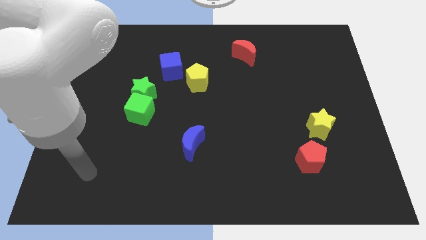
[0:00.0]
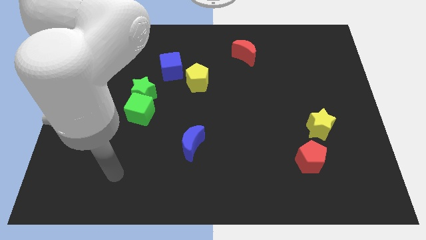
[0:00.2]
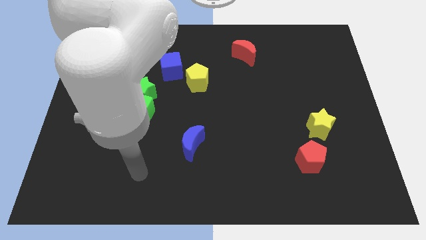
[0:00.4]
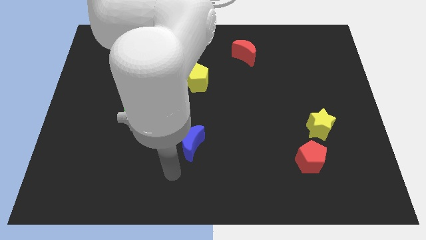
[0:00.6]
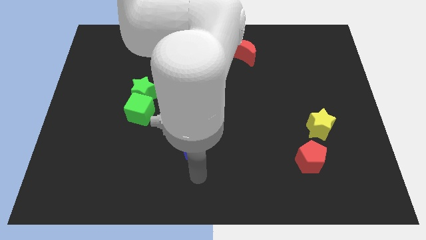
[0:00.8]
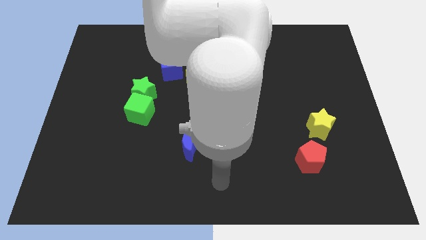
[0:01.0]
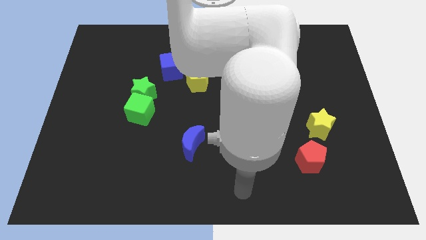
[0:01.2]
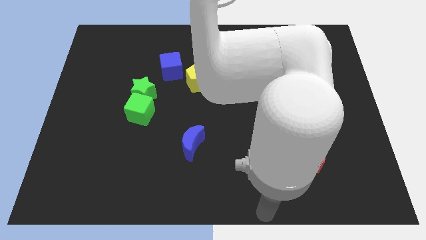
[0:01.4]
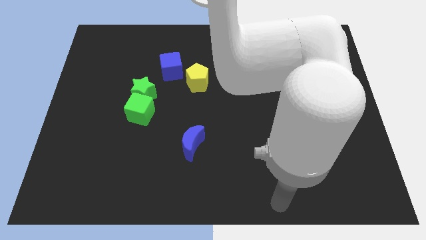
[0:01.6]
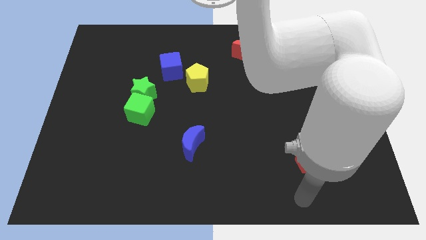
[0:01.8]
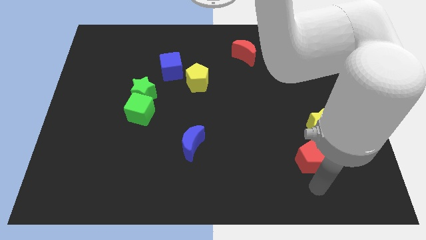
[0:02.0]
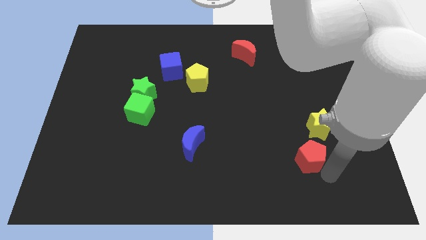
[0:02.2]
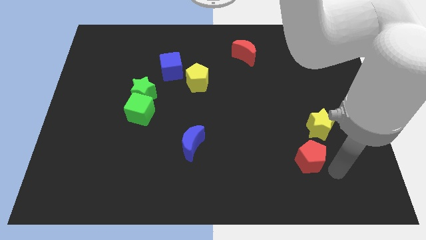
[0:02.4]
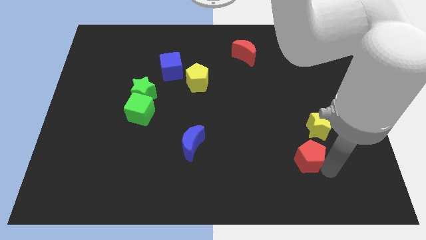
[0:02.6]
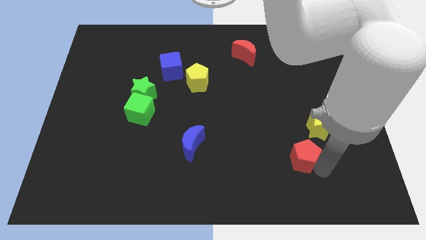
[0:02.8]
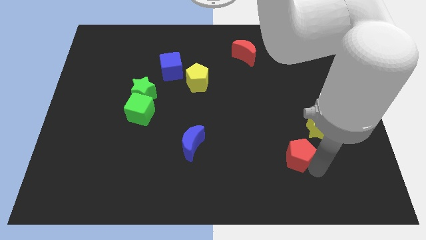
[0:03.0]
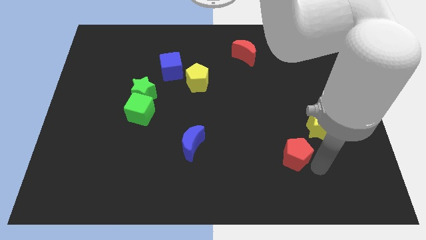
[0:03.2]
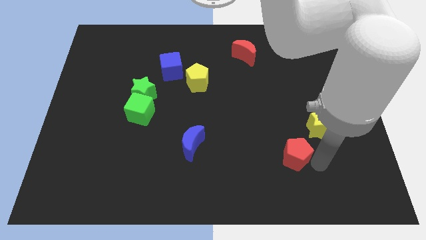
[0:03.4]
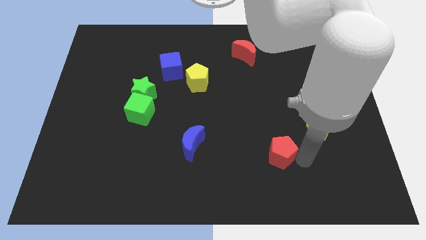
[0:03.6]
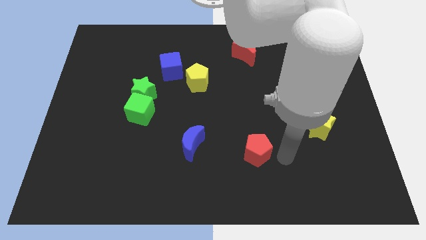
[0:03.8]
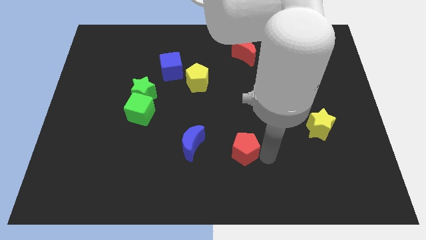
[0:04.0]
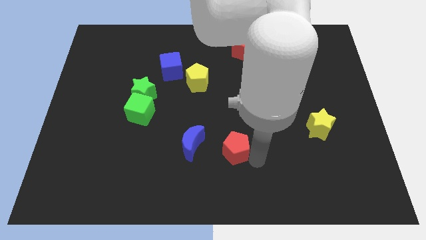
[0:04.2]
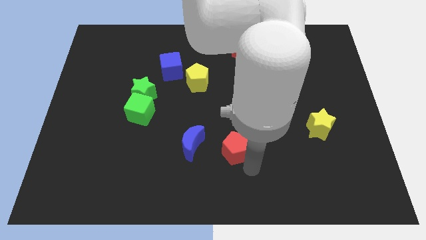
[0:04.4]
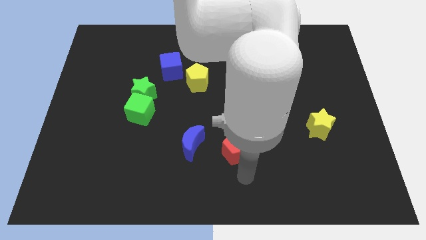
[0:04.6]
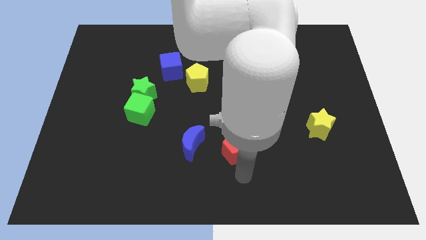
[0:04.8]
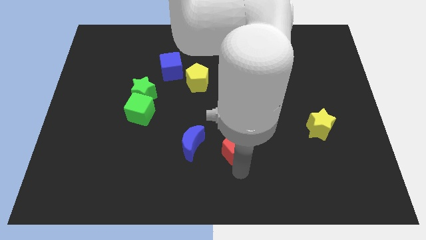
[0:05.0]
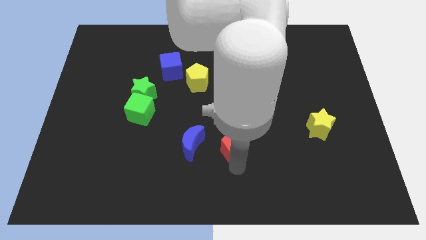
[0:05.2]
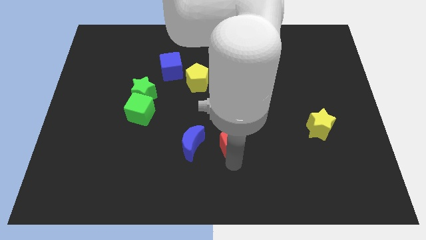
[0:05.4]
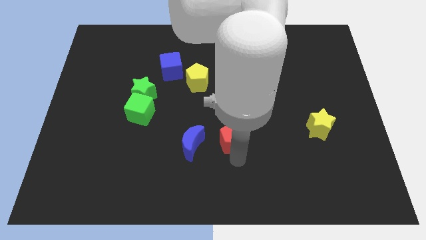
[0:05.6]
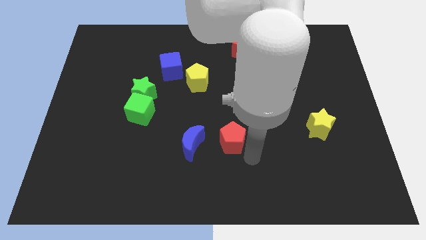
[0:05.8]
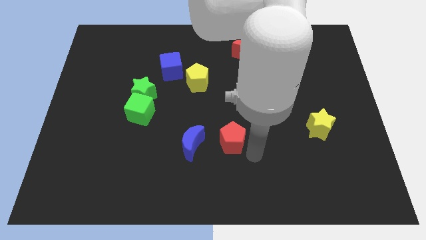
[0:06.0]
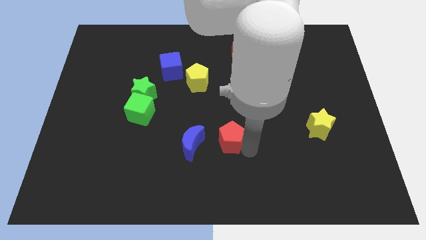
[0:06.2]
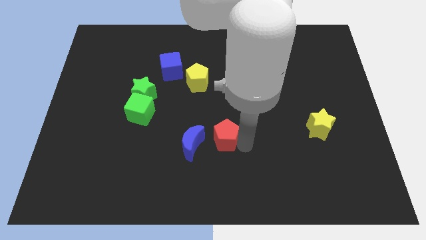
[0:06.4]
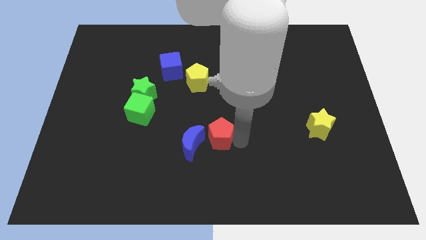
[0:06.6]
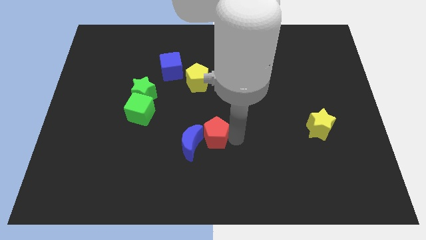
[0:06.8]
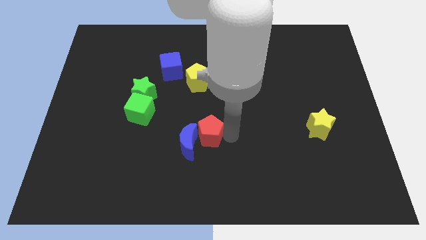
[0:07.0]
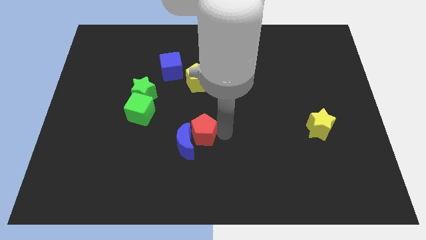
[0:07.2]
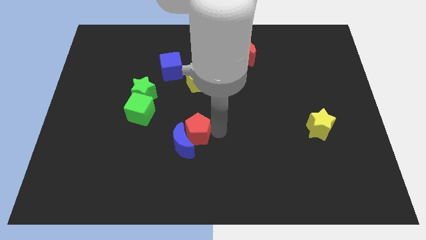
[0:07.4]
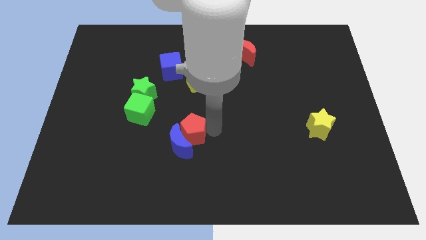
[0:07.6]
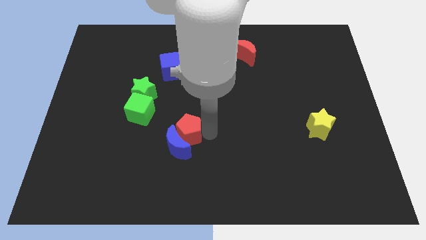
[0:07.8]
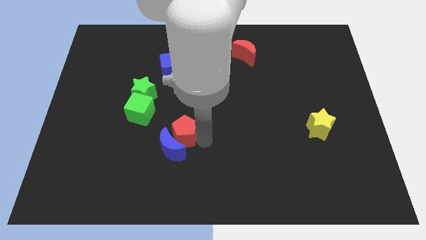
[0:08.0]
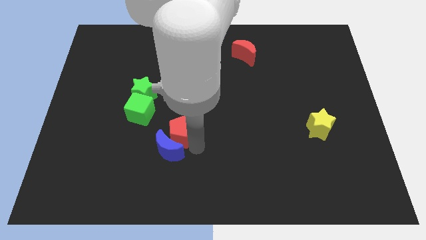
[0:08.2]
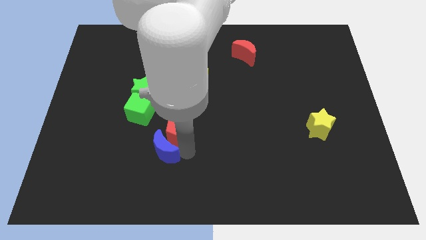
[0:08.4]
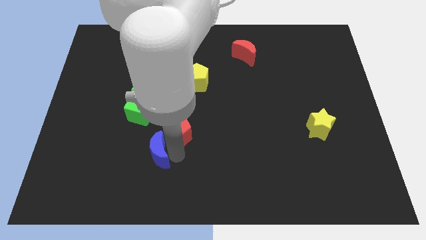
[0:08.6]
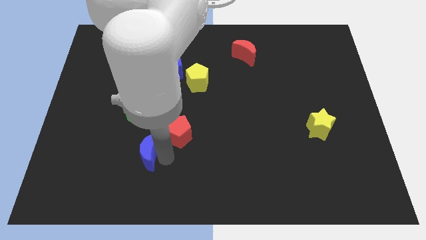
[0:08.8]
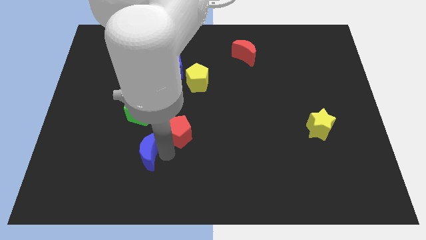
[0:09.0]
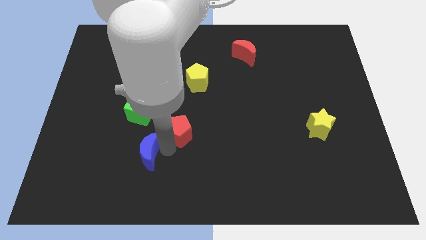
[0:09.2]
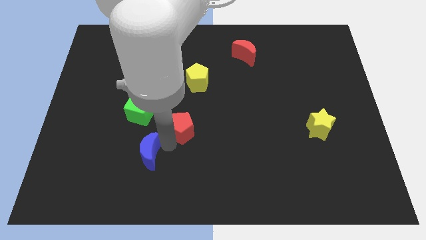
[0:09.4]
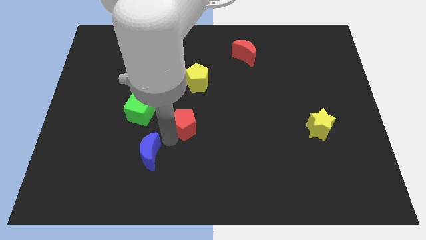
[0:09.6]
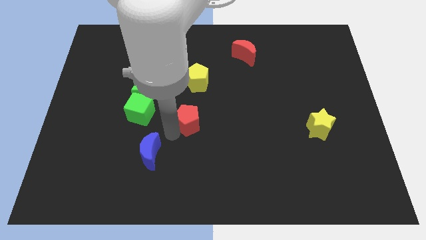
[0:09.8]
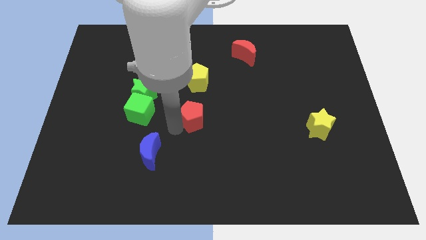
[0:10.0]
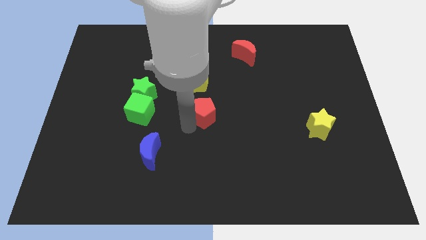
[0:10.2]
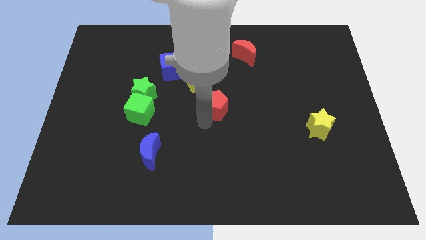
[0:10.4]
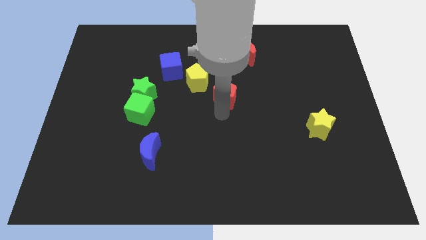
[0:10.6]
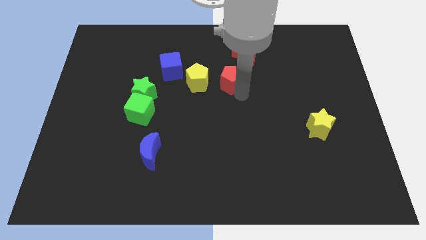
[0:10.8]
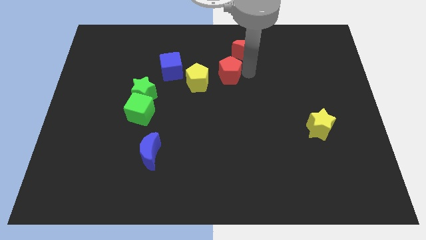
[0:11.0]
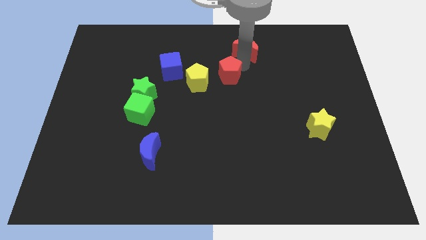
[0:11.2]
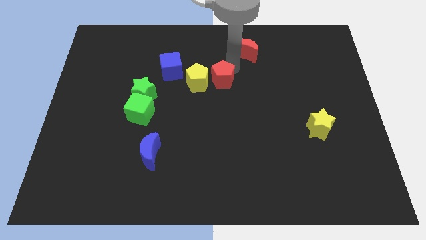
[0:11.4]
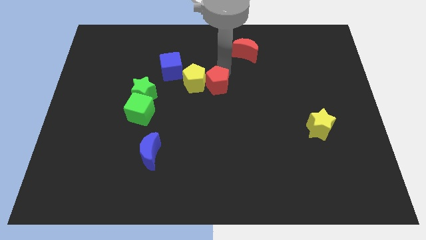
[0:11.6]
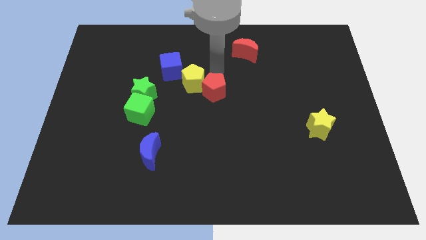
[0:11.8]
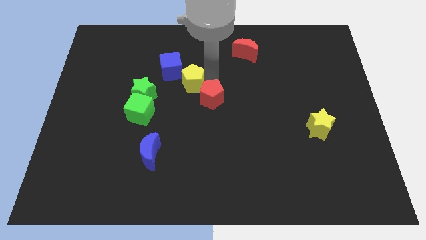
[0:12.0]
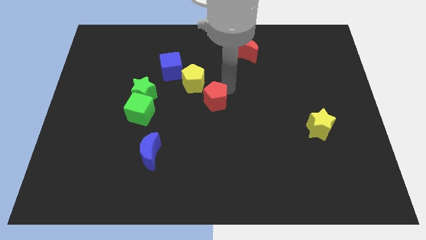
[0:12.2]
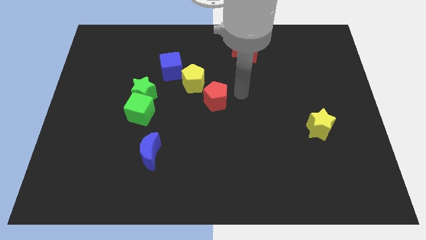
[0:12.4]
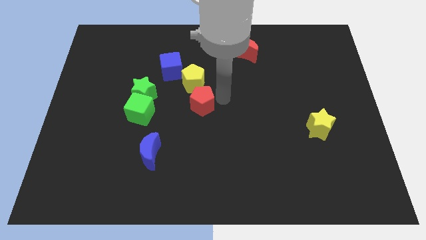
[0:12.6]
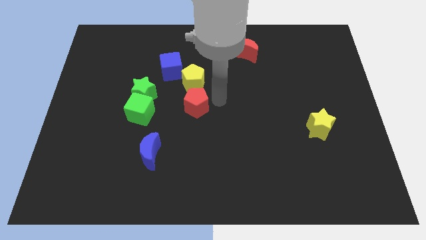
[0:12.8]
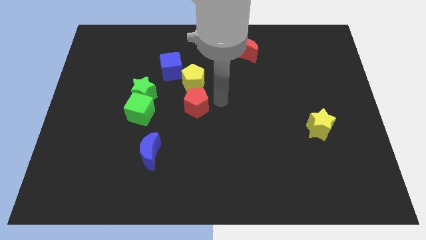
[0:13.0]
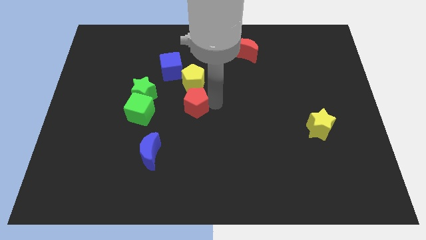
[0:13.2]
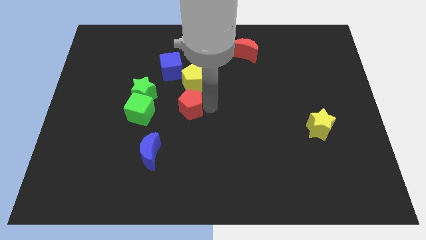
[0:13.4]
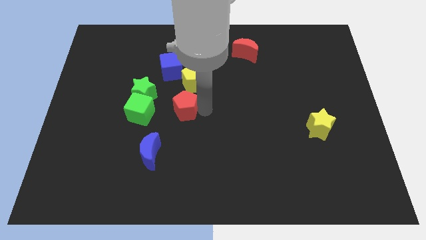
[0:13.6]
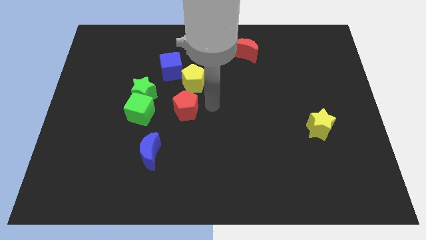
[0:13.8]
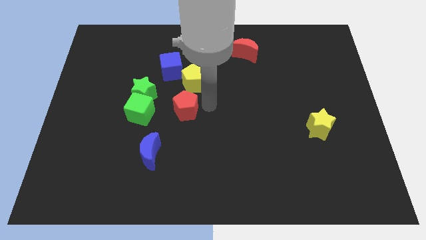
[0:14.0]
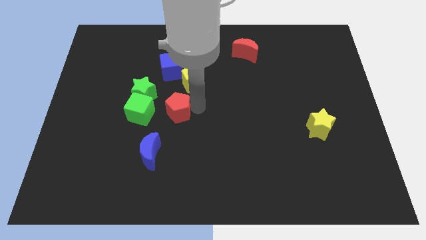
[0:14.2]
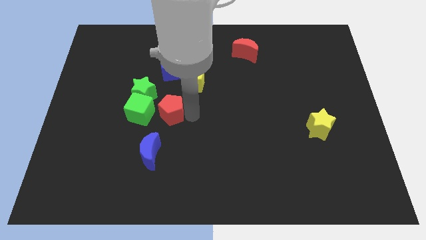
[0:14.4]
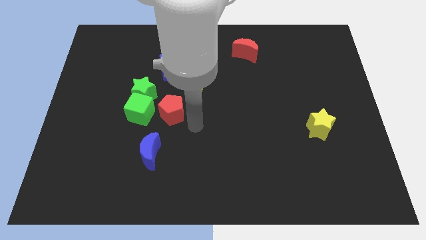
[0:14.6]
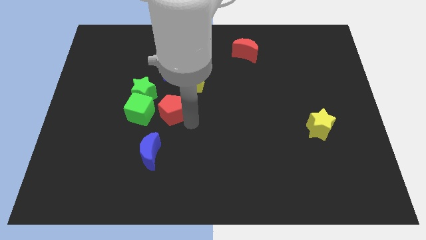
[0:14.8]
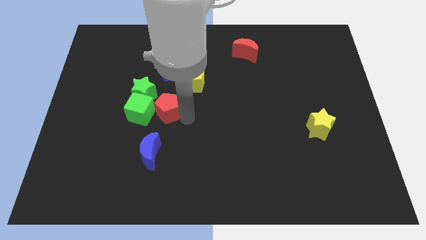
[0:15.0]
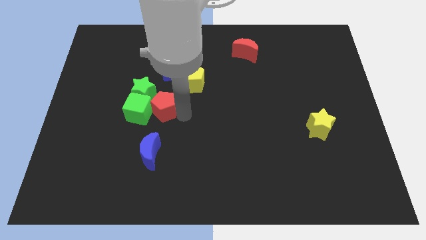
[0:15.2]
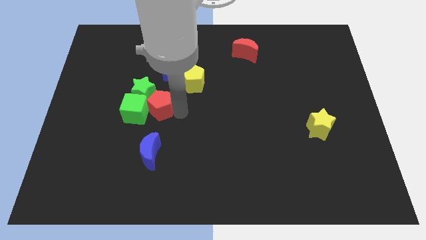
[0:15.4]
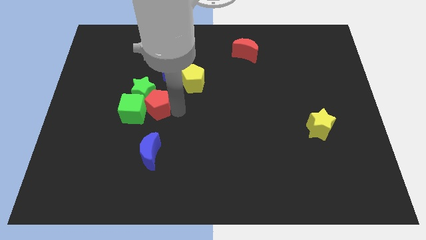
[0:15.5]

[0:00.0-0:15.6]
slide the red pentagon towards the green star
